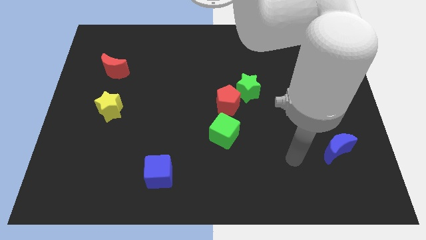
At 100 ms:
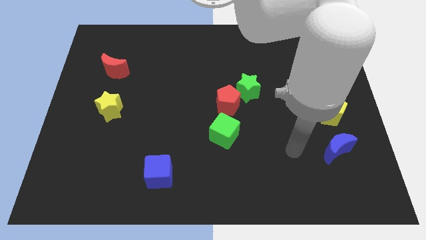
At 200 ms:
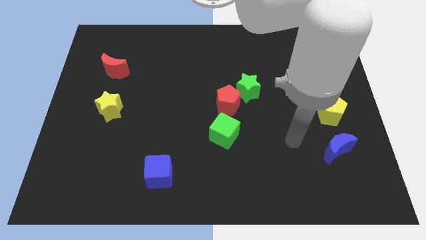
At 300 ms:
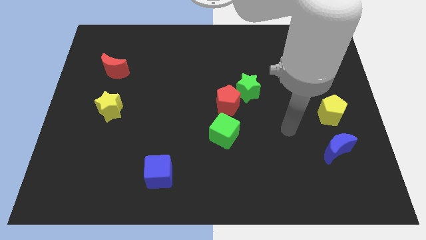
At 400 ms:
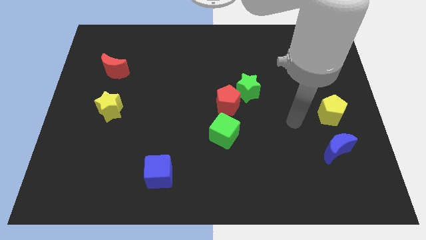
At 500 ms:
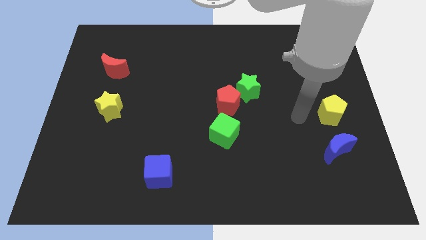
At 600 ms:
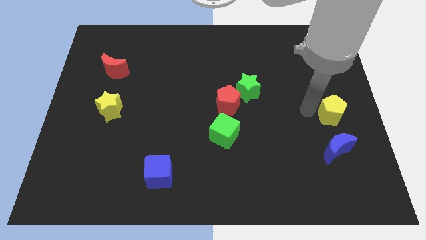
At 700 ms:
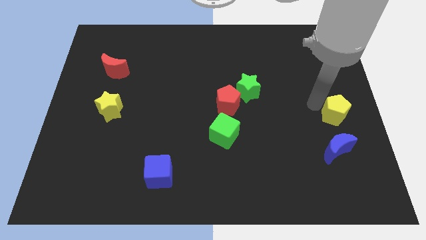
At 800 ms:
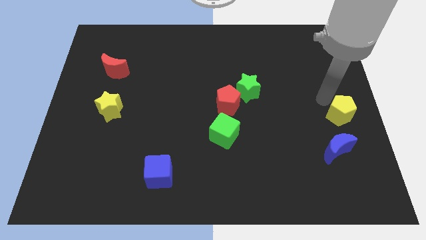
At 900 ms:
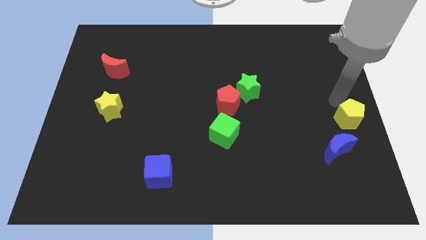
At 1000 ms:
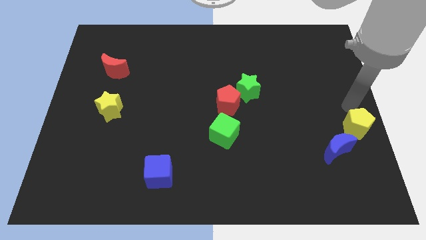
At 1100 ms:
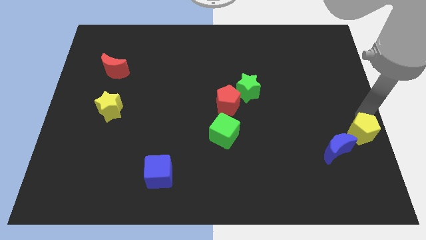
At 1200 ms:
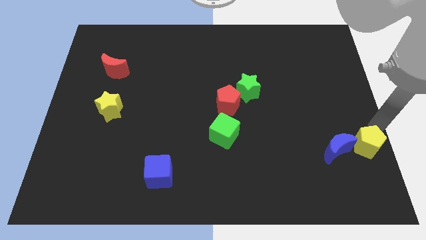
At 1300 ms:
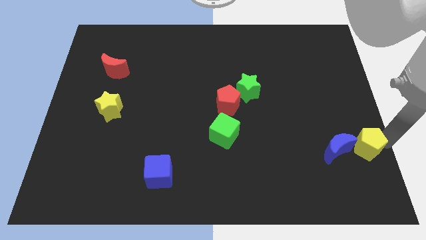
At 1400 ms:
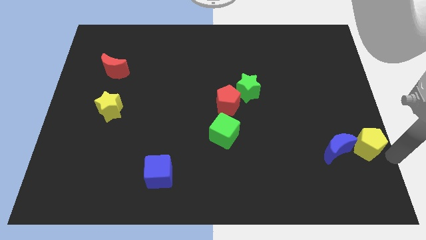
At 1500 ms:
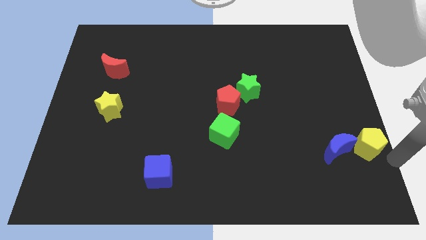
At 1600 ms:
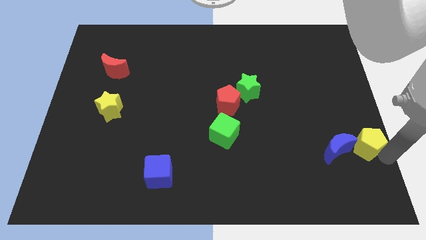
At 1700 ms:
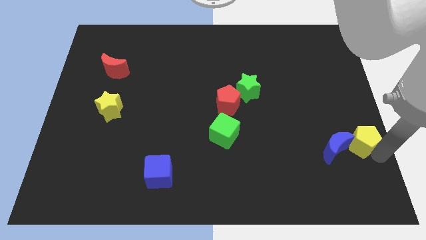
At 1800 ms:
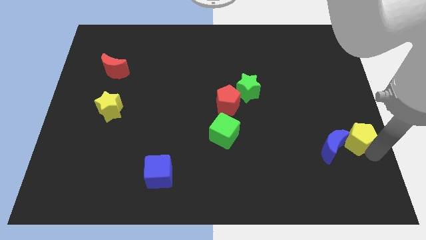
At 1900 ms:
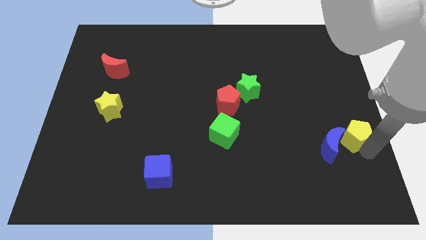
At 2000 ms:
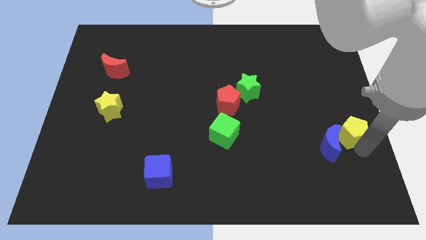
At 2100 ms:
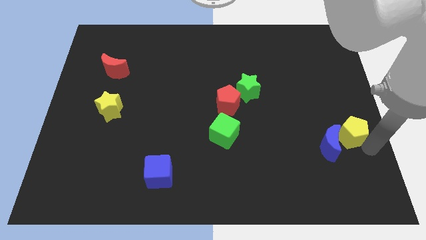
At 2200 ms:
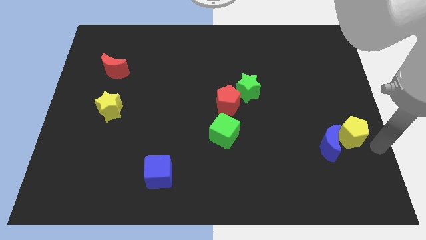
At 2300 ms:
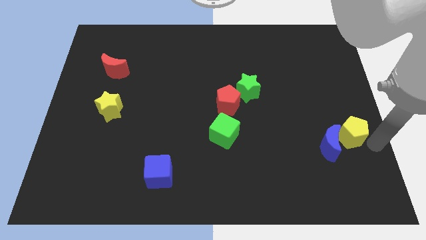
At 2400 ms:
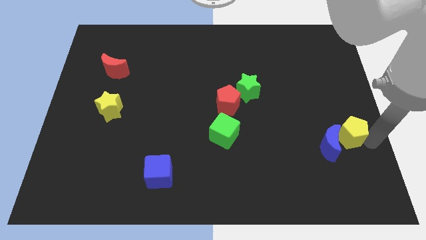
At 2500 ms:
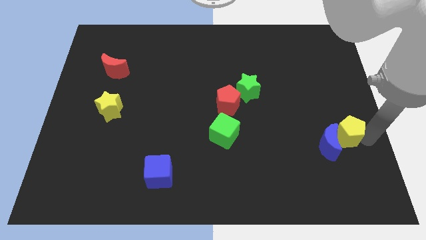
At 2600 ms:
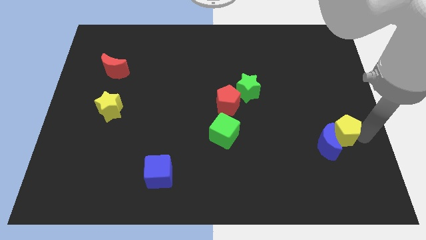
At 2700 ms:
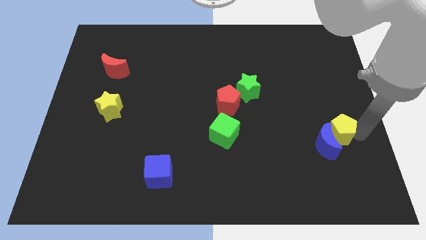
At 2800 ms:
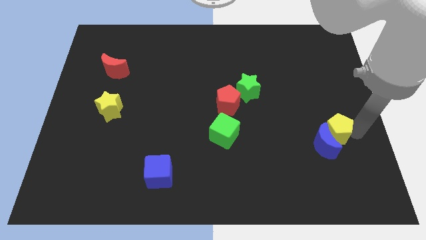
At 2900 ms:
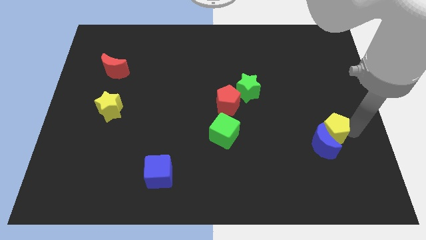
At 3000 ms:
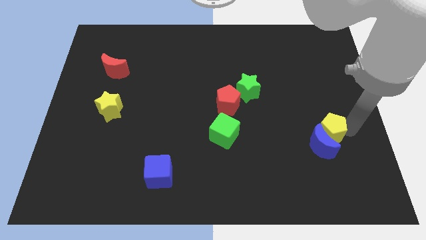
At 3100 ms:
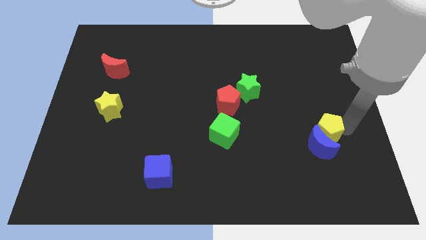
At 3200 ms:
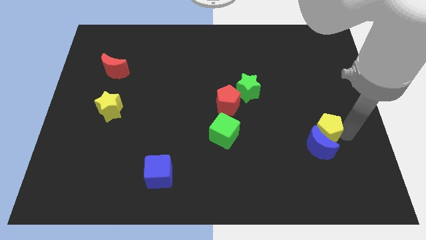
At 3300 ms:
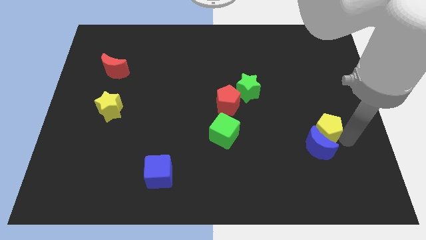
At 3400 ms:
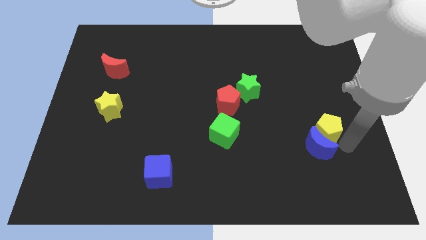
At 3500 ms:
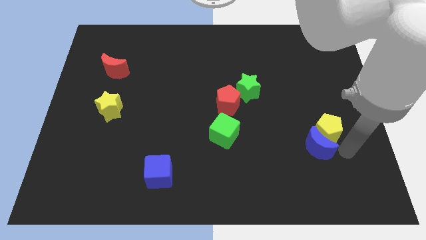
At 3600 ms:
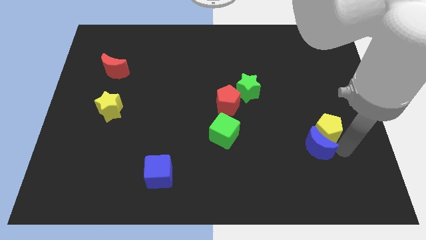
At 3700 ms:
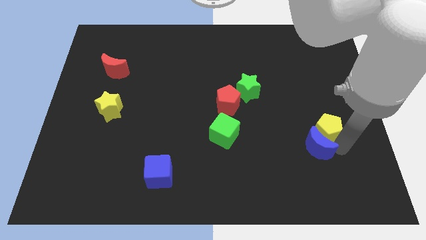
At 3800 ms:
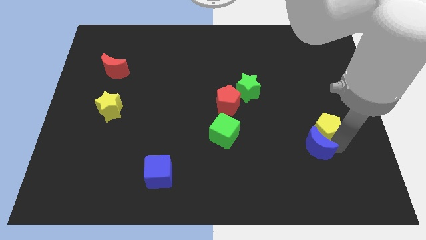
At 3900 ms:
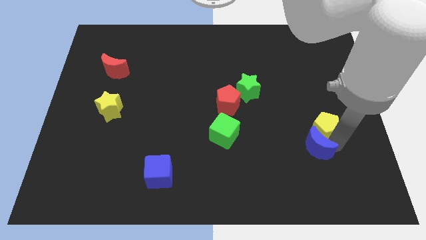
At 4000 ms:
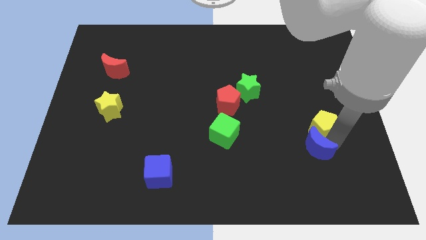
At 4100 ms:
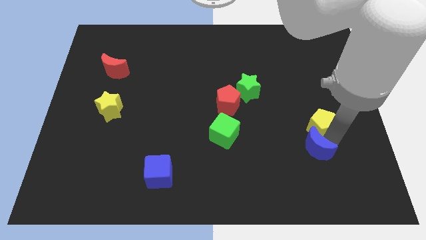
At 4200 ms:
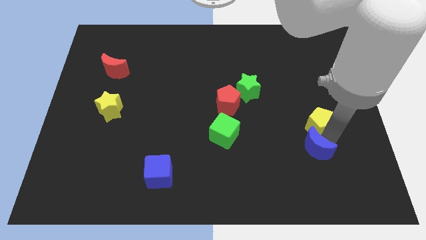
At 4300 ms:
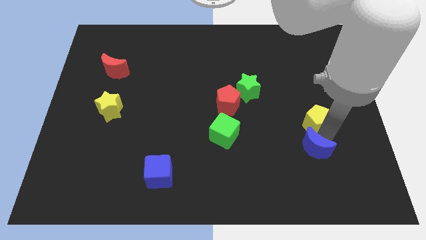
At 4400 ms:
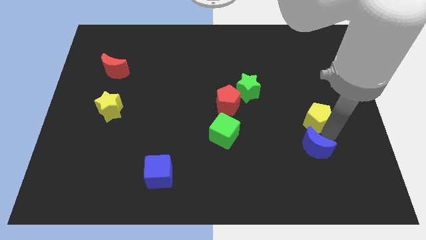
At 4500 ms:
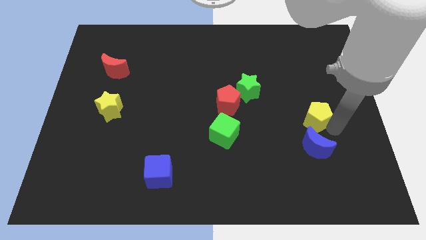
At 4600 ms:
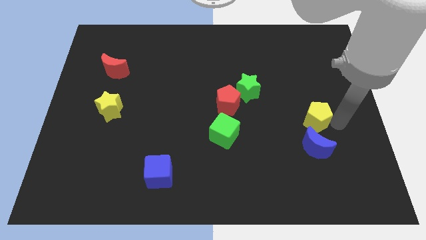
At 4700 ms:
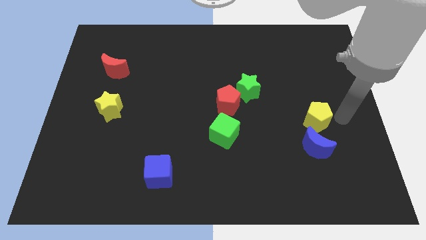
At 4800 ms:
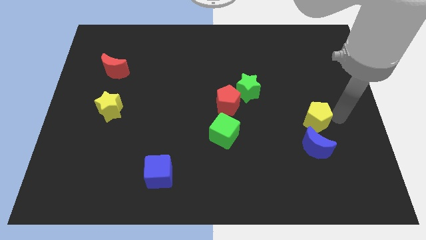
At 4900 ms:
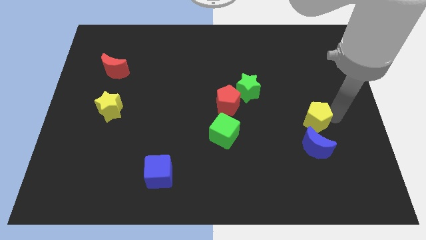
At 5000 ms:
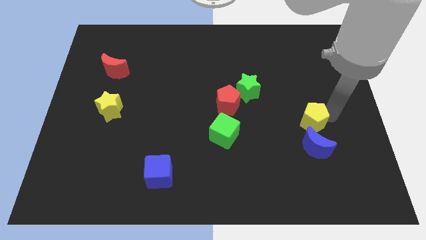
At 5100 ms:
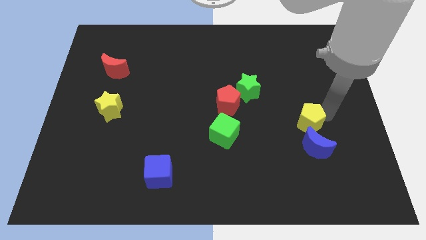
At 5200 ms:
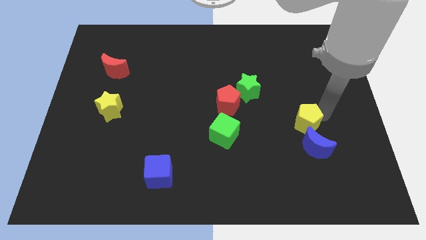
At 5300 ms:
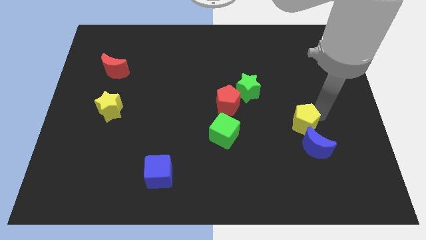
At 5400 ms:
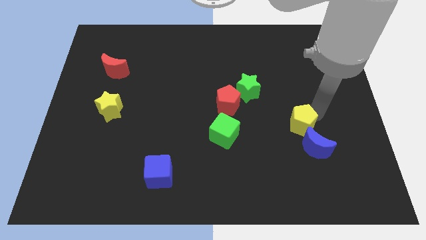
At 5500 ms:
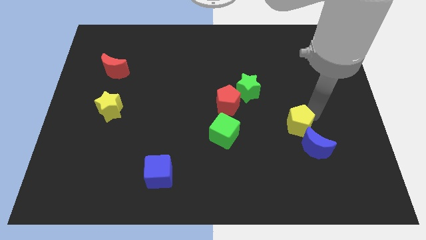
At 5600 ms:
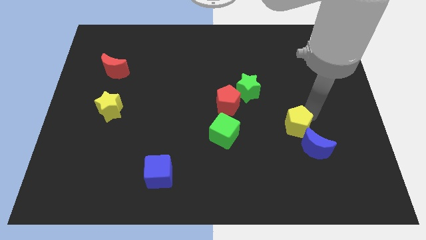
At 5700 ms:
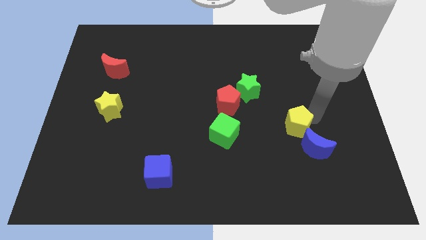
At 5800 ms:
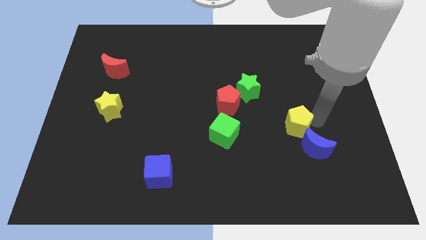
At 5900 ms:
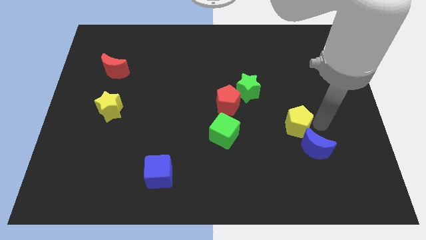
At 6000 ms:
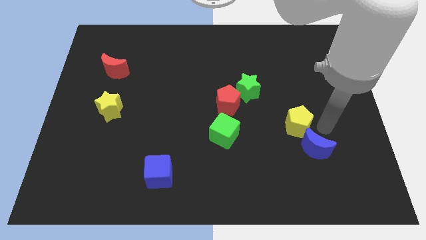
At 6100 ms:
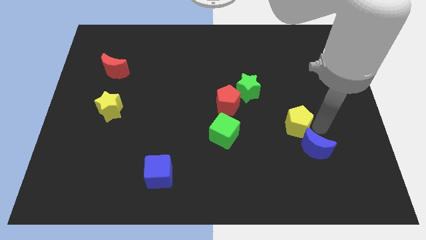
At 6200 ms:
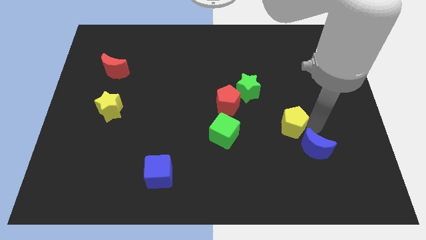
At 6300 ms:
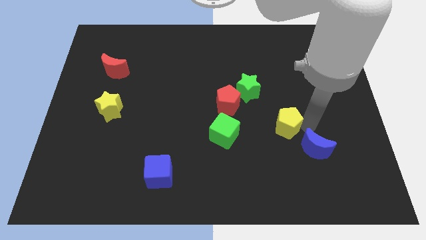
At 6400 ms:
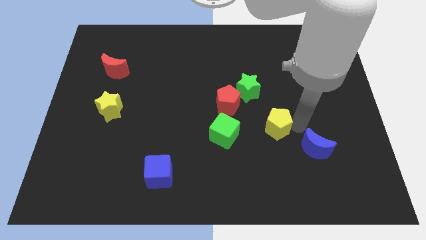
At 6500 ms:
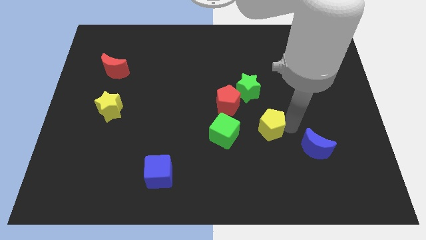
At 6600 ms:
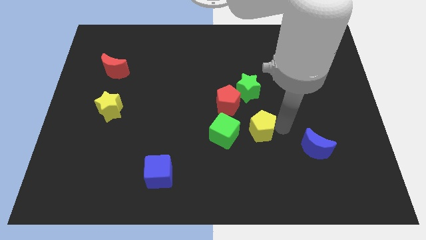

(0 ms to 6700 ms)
slide the yellow pentagon to the top right of the green cube
